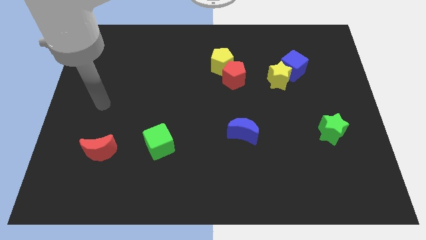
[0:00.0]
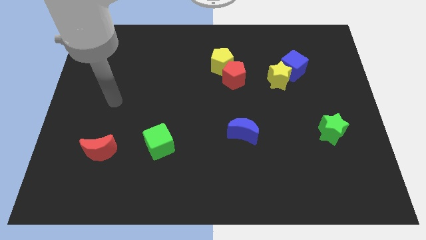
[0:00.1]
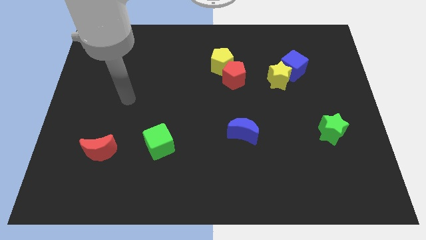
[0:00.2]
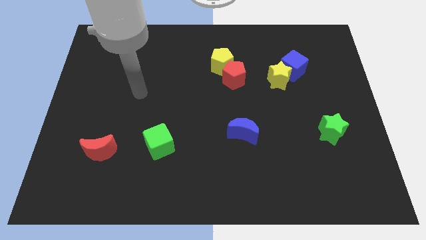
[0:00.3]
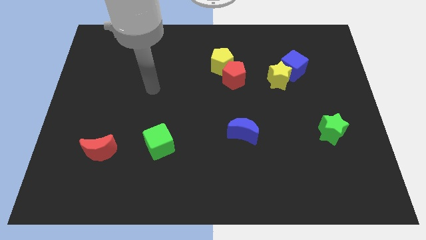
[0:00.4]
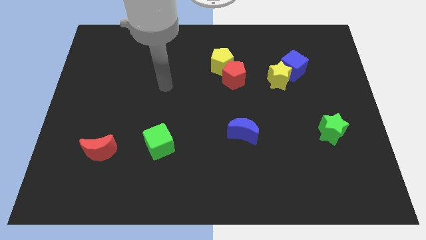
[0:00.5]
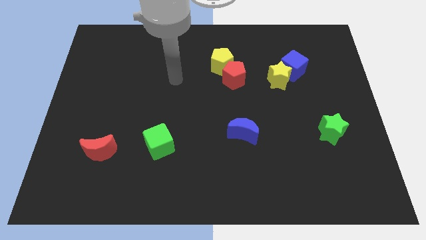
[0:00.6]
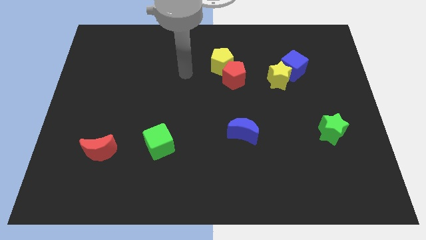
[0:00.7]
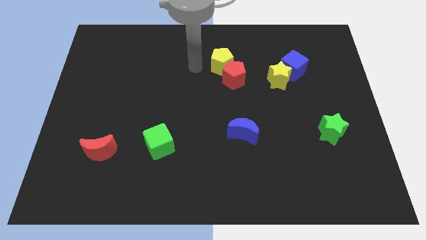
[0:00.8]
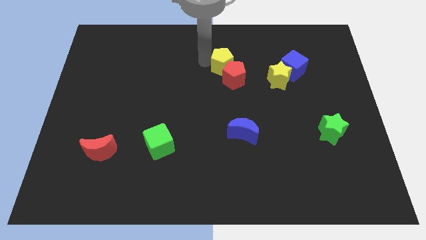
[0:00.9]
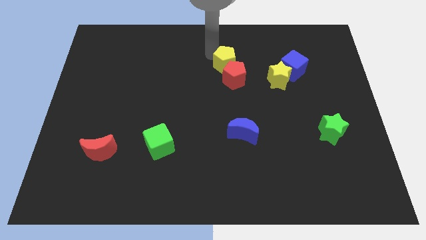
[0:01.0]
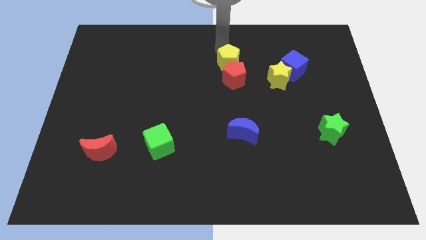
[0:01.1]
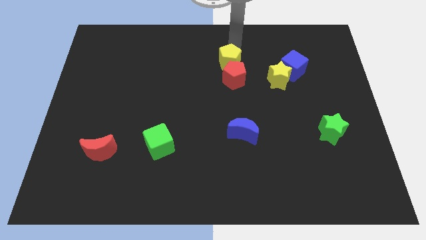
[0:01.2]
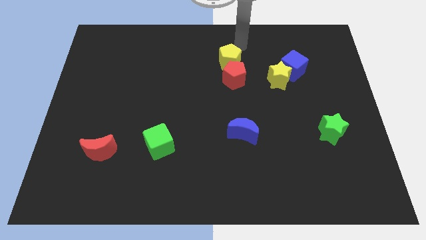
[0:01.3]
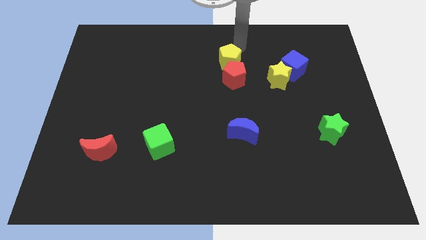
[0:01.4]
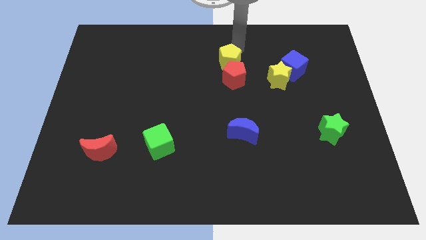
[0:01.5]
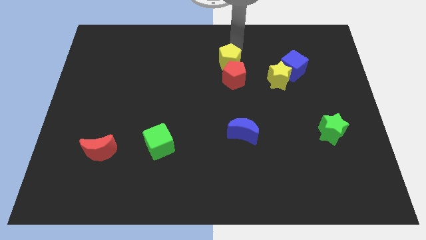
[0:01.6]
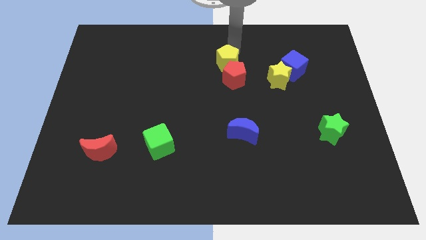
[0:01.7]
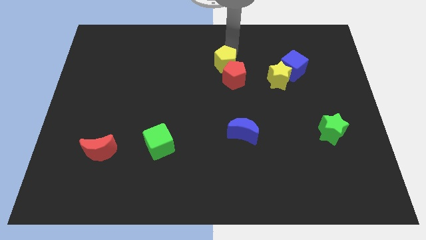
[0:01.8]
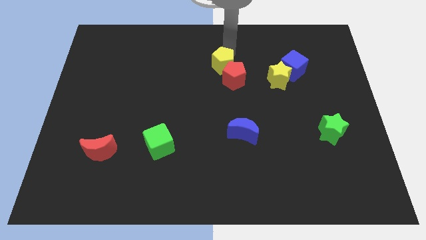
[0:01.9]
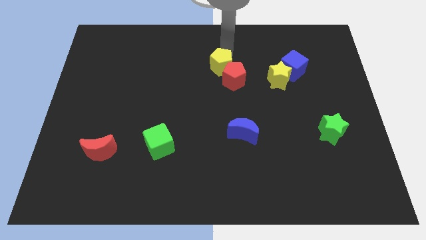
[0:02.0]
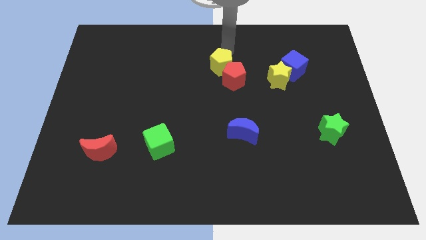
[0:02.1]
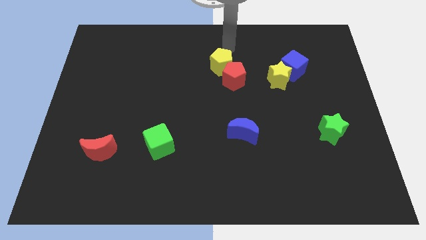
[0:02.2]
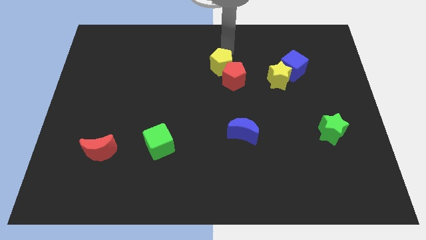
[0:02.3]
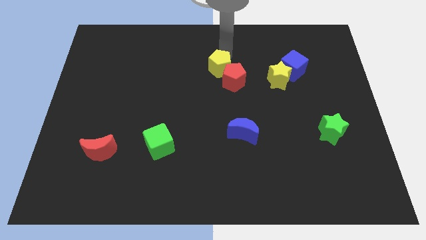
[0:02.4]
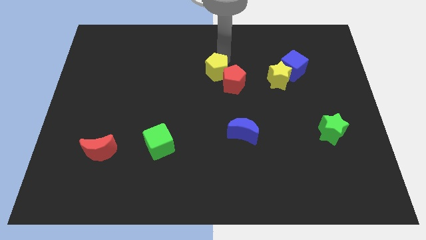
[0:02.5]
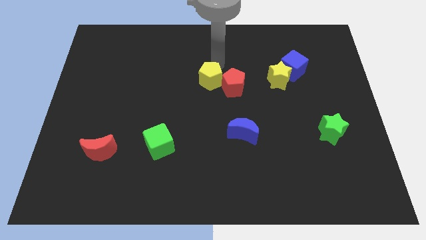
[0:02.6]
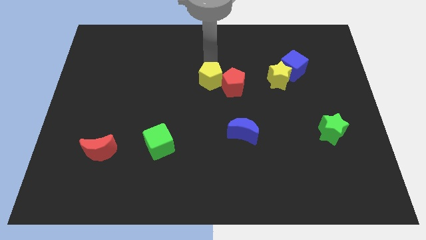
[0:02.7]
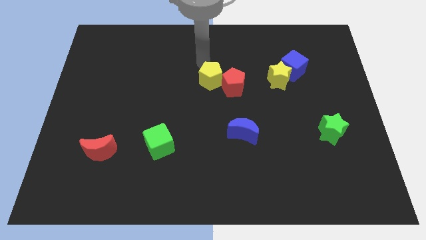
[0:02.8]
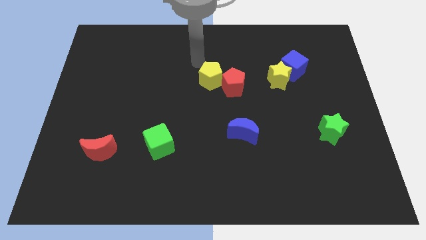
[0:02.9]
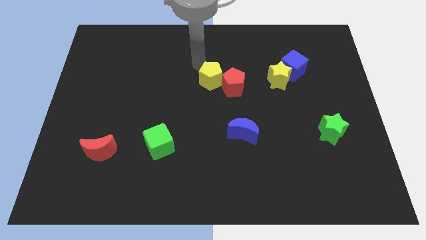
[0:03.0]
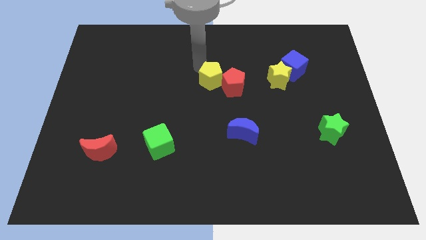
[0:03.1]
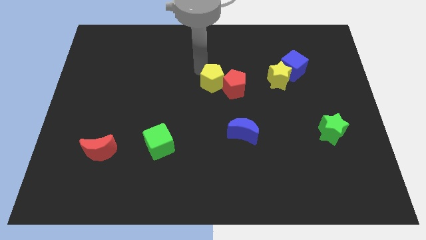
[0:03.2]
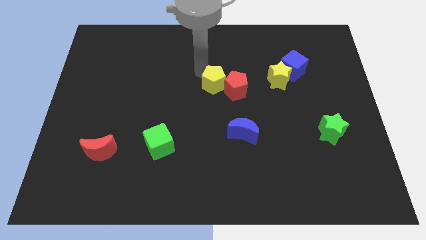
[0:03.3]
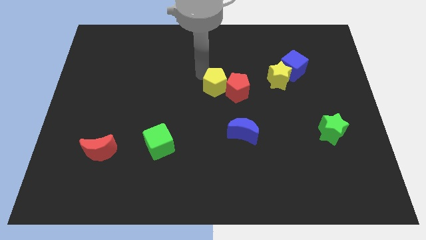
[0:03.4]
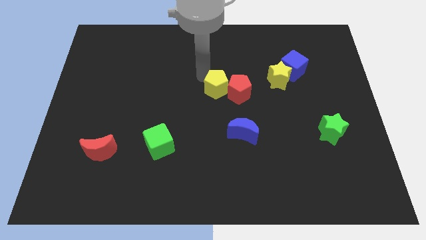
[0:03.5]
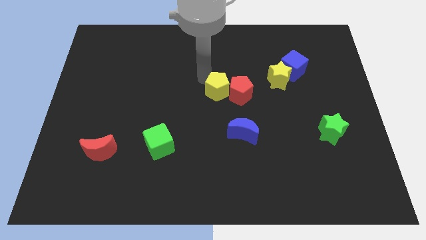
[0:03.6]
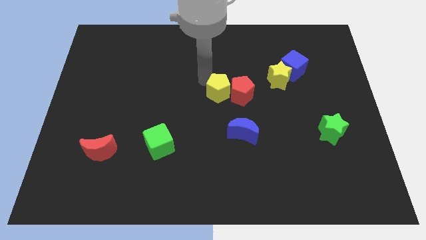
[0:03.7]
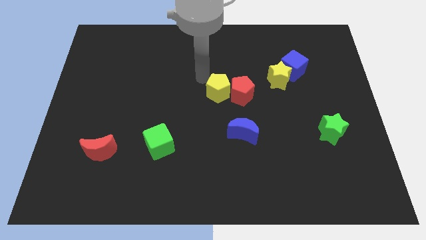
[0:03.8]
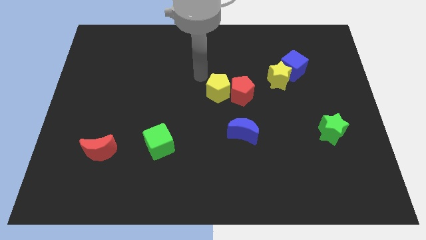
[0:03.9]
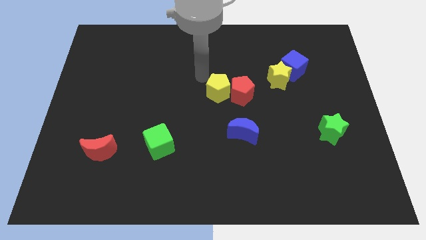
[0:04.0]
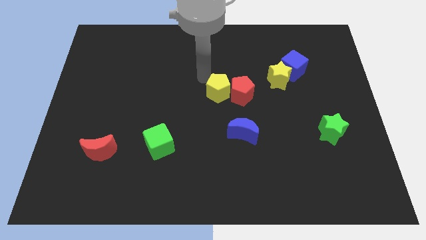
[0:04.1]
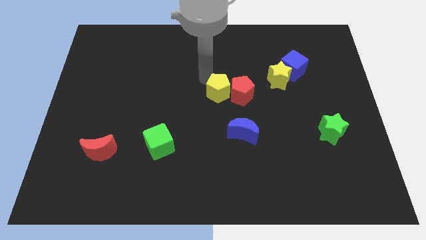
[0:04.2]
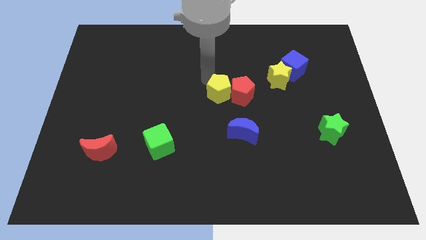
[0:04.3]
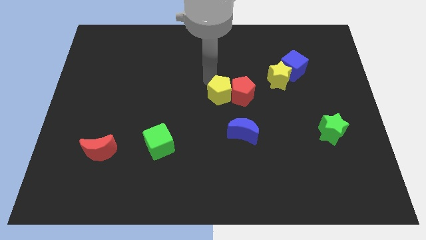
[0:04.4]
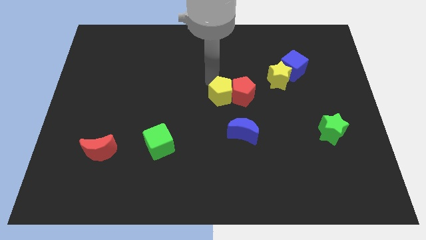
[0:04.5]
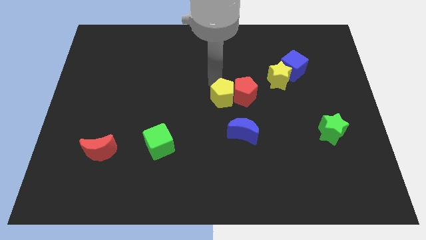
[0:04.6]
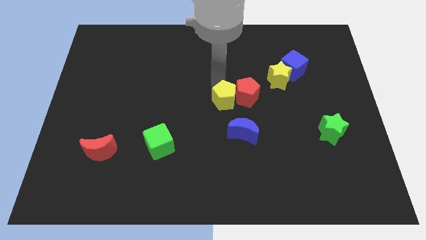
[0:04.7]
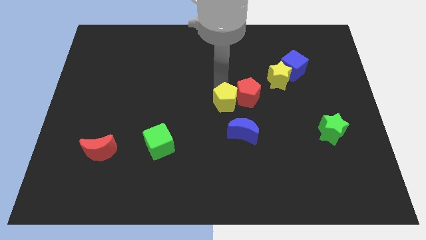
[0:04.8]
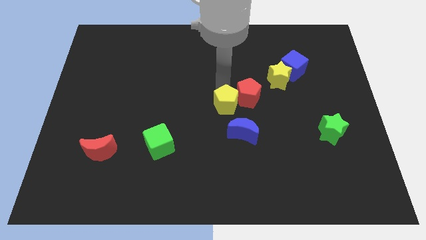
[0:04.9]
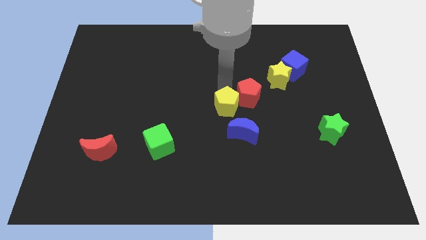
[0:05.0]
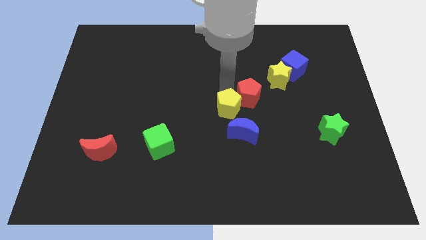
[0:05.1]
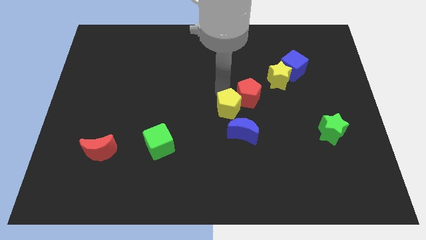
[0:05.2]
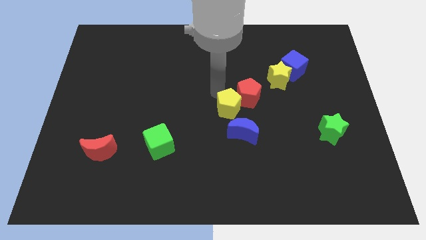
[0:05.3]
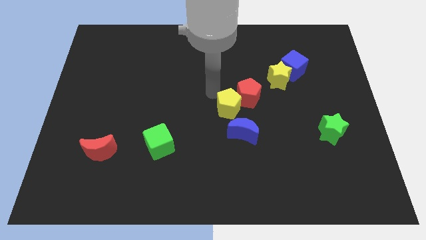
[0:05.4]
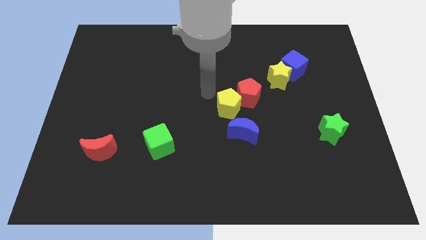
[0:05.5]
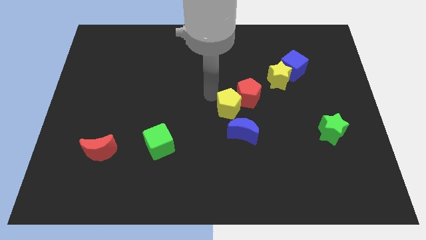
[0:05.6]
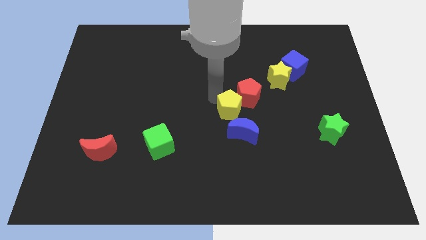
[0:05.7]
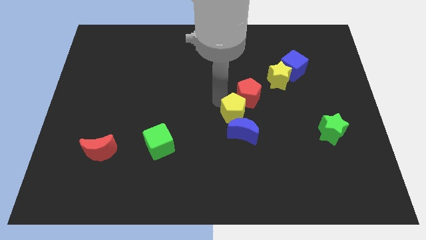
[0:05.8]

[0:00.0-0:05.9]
push the yellow pentagon towards the blue moon

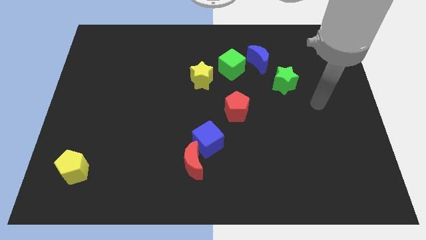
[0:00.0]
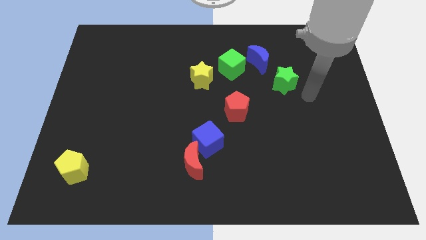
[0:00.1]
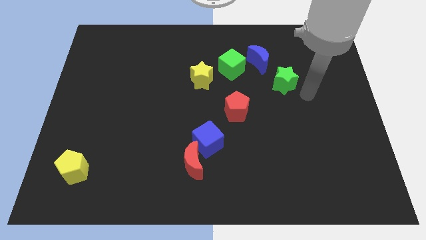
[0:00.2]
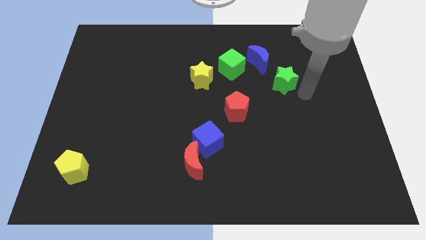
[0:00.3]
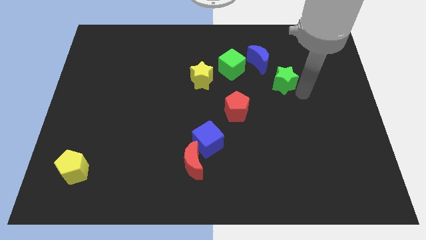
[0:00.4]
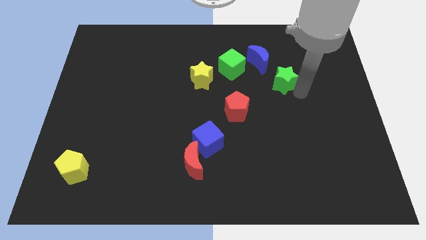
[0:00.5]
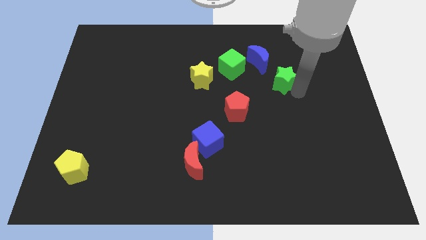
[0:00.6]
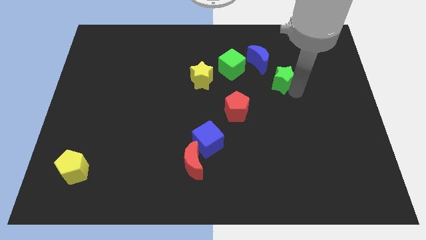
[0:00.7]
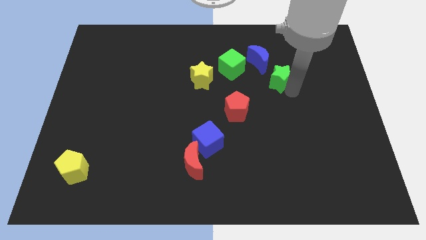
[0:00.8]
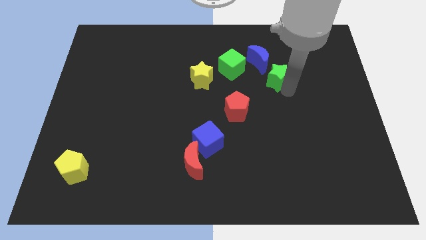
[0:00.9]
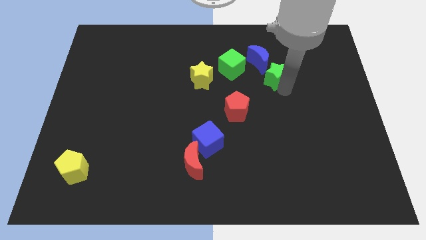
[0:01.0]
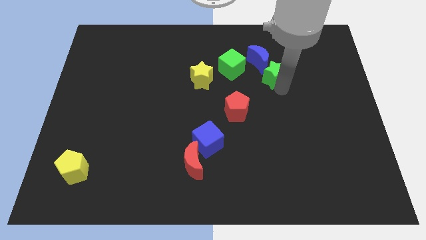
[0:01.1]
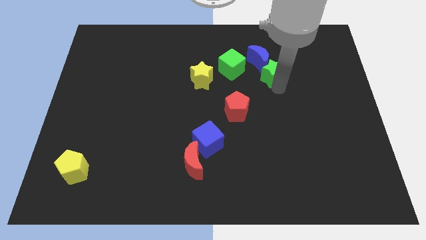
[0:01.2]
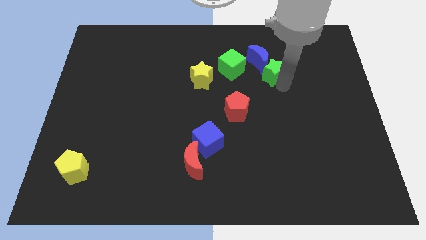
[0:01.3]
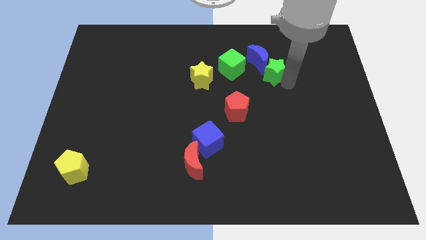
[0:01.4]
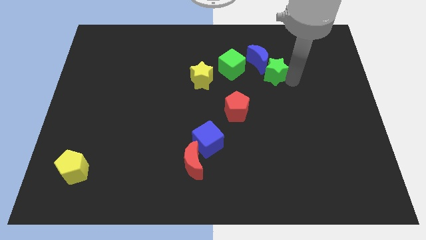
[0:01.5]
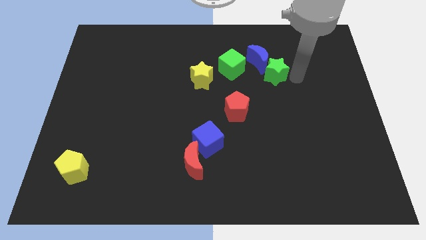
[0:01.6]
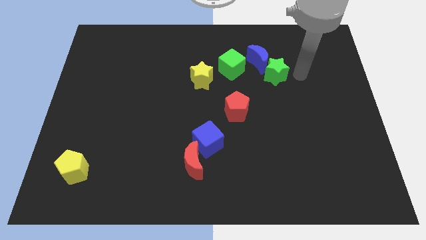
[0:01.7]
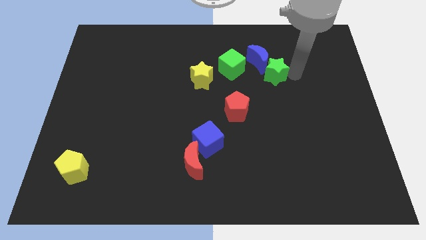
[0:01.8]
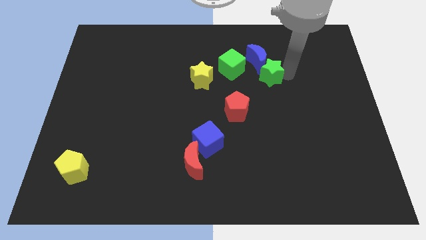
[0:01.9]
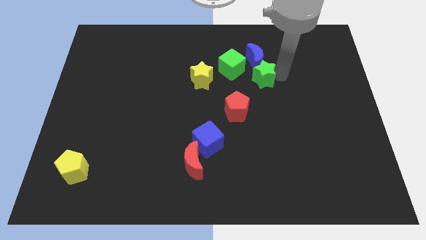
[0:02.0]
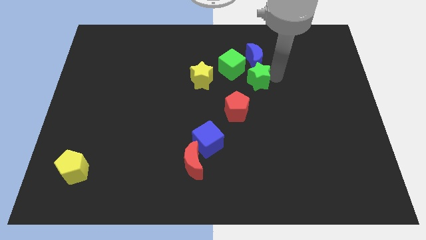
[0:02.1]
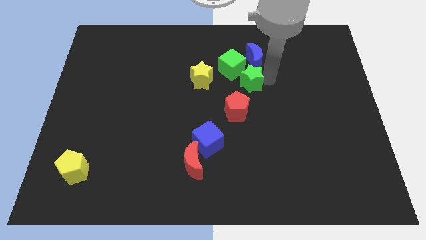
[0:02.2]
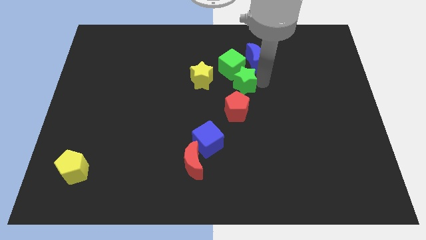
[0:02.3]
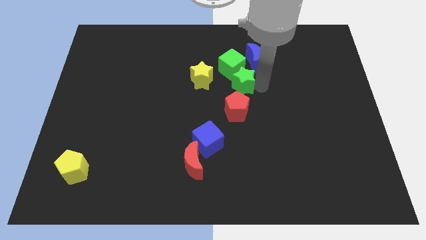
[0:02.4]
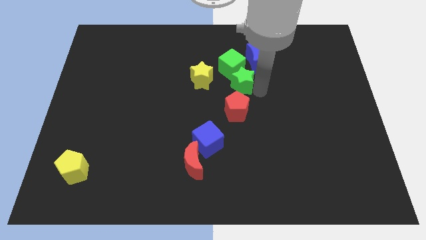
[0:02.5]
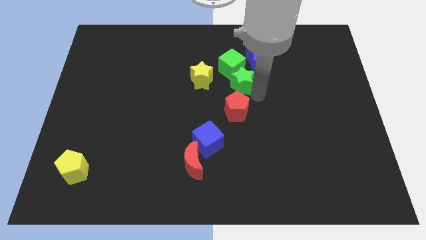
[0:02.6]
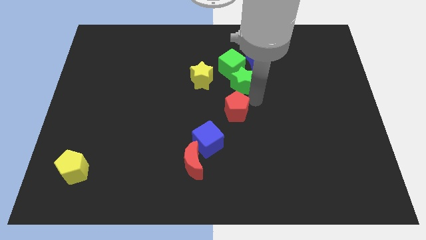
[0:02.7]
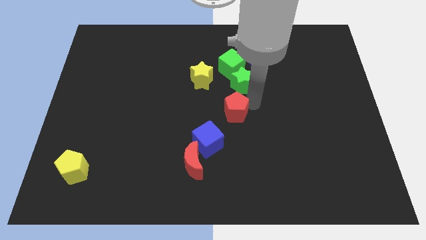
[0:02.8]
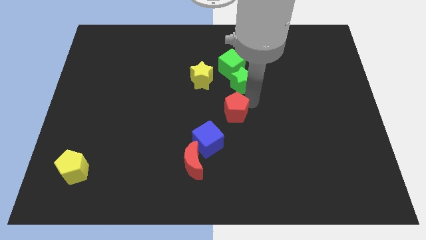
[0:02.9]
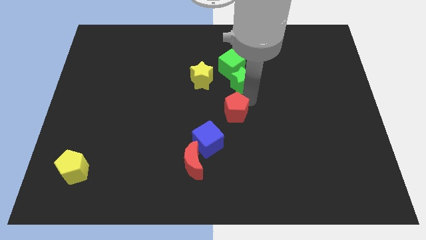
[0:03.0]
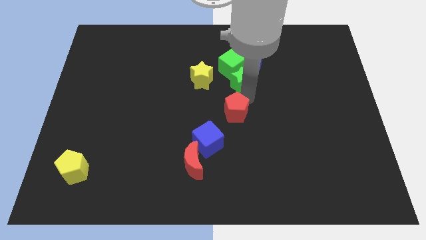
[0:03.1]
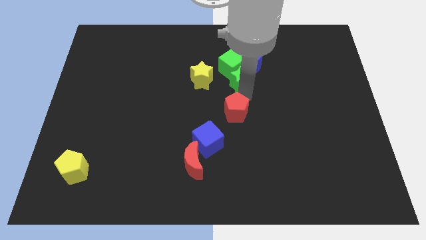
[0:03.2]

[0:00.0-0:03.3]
slide the green star close to the green cube
